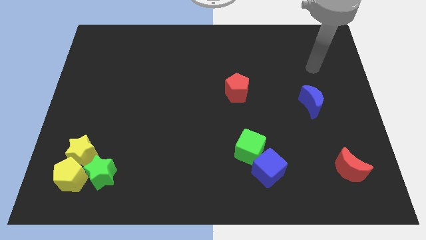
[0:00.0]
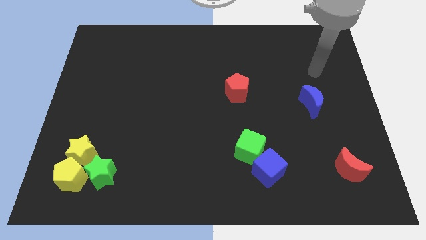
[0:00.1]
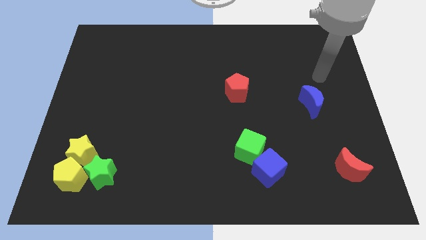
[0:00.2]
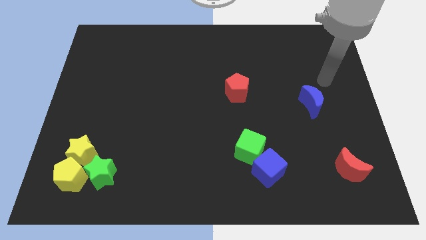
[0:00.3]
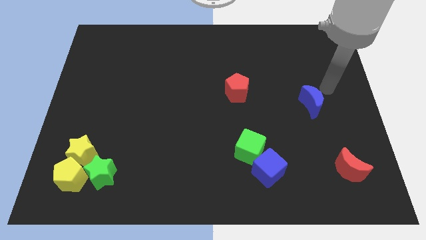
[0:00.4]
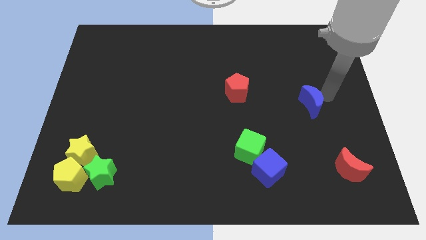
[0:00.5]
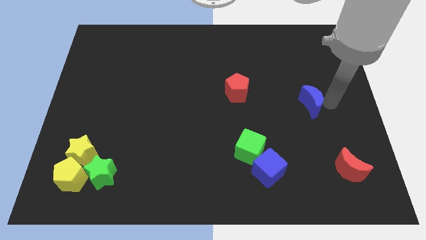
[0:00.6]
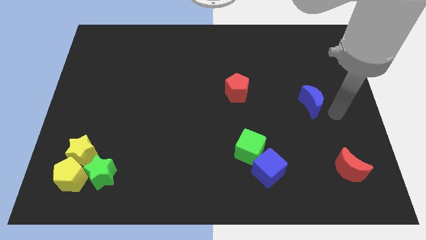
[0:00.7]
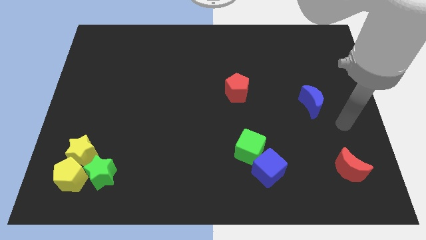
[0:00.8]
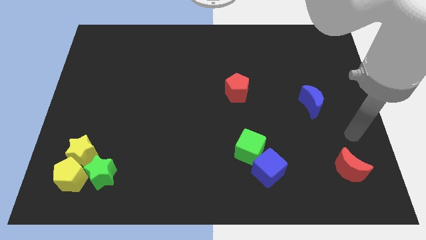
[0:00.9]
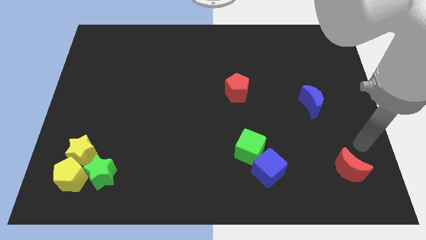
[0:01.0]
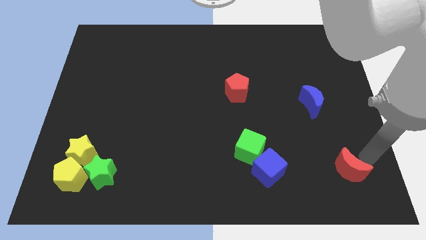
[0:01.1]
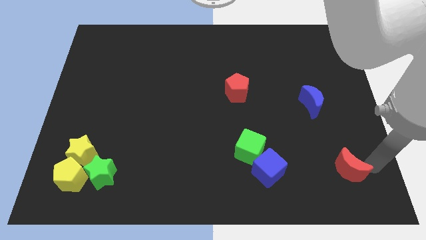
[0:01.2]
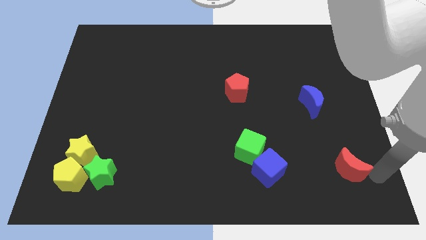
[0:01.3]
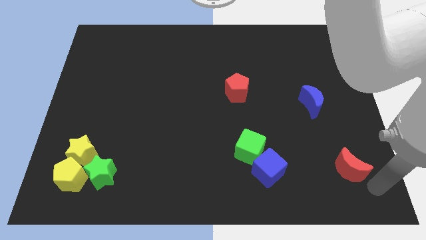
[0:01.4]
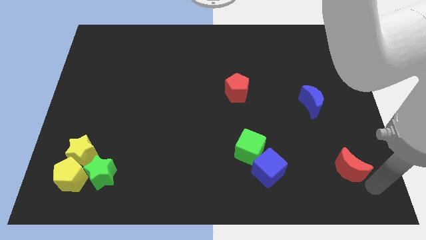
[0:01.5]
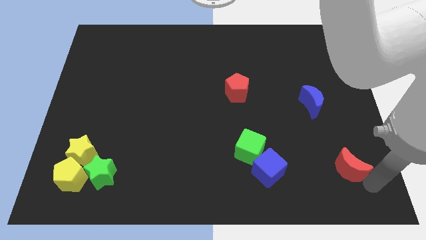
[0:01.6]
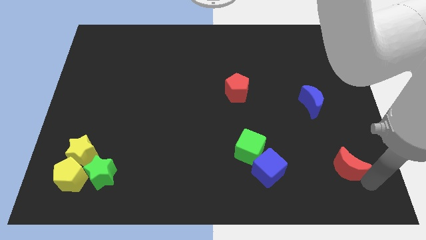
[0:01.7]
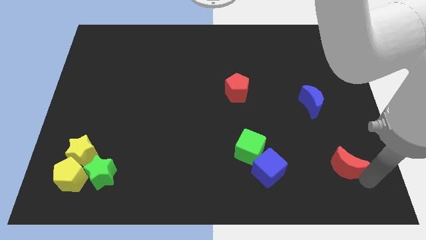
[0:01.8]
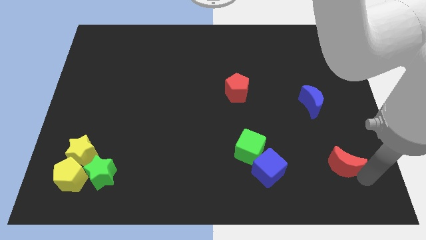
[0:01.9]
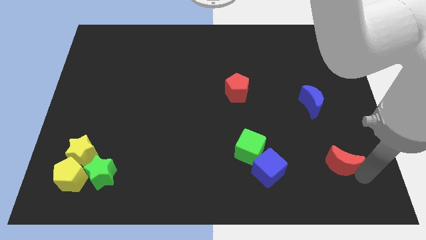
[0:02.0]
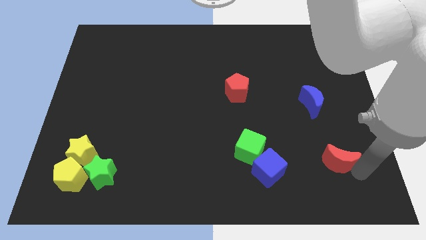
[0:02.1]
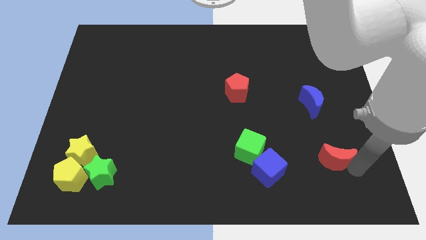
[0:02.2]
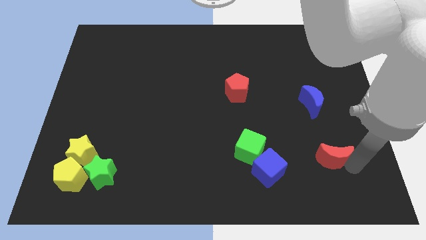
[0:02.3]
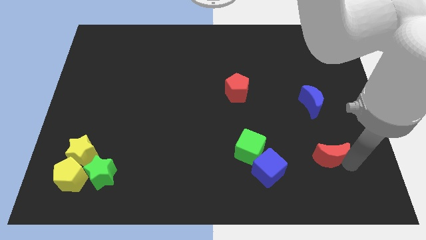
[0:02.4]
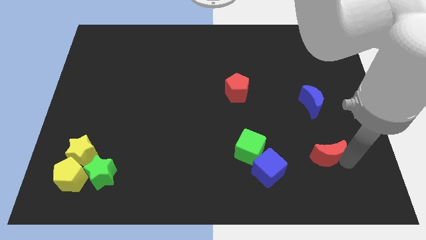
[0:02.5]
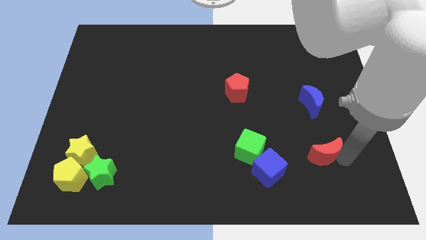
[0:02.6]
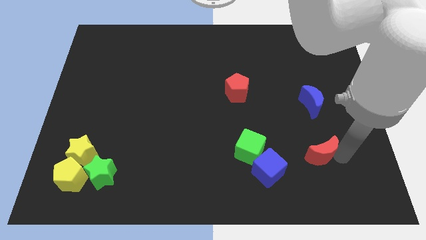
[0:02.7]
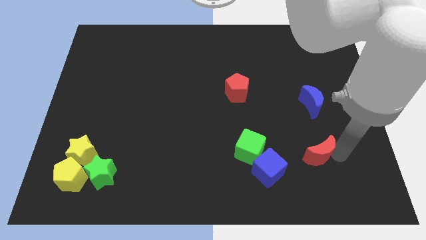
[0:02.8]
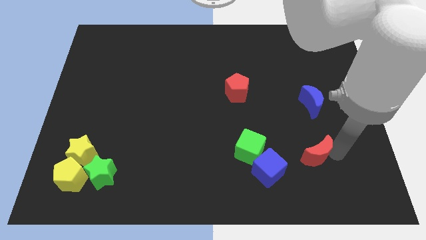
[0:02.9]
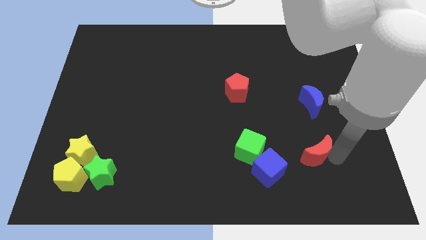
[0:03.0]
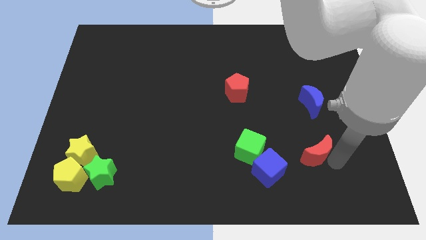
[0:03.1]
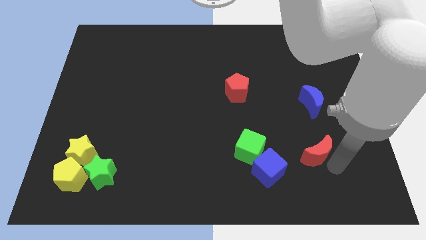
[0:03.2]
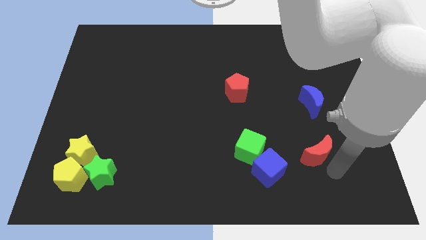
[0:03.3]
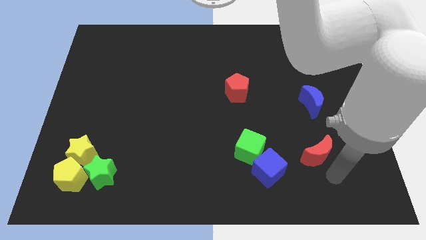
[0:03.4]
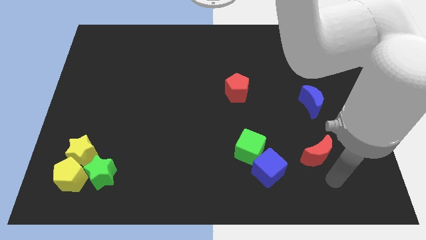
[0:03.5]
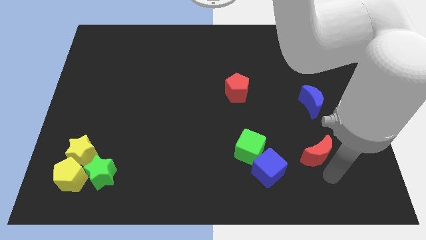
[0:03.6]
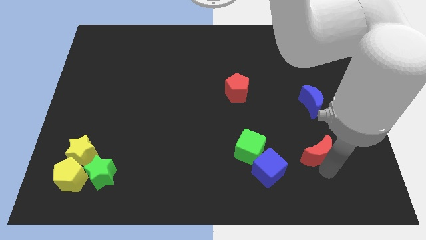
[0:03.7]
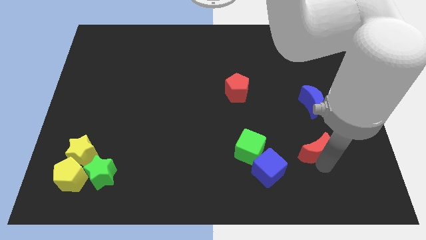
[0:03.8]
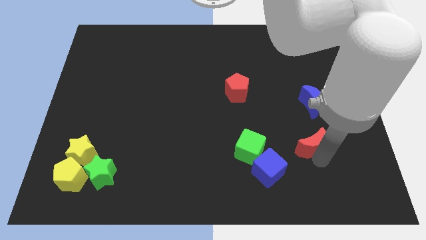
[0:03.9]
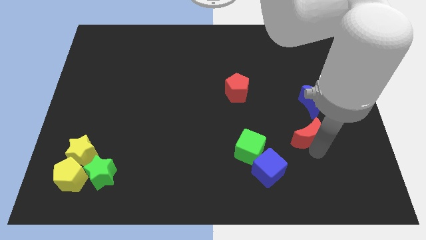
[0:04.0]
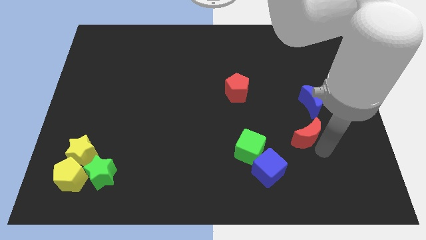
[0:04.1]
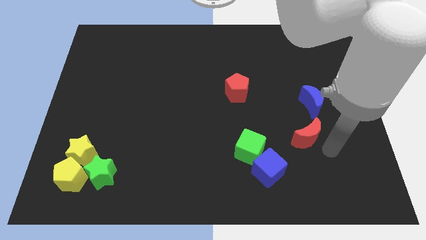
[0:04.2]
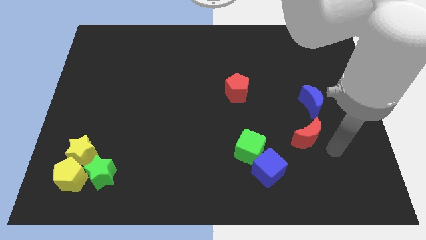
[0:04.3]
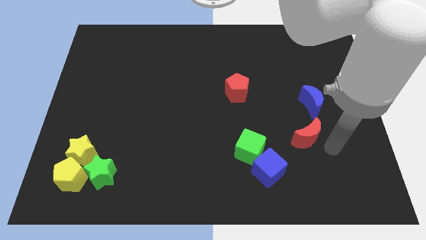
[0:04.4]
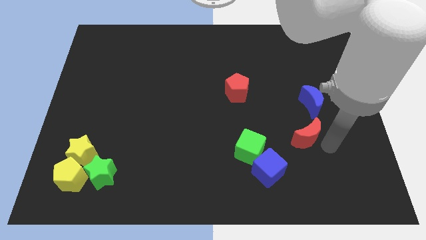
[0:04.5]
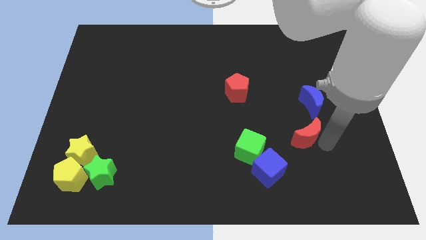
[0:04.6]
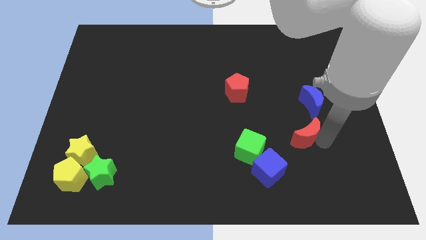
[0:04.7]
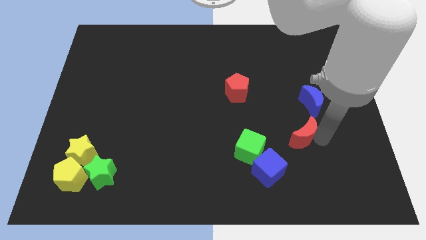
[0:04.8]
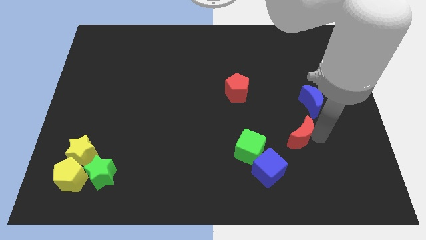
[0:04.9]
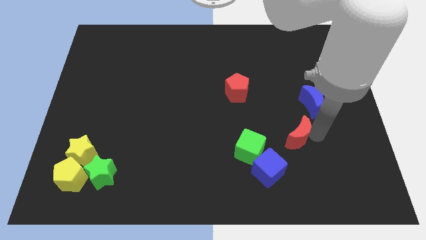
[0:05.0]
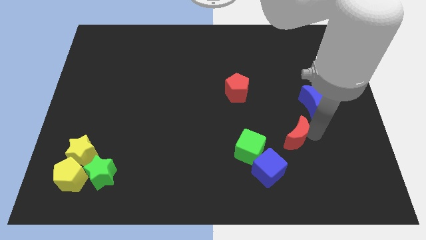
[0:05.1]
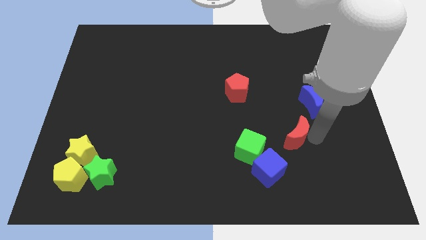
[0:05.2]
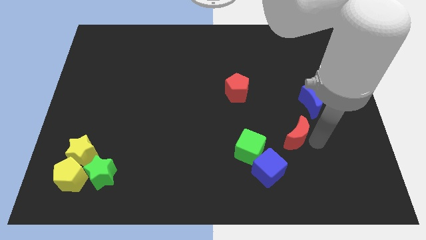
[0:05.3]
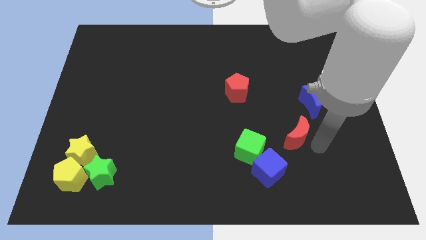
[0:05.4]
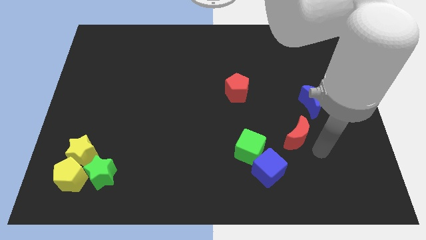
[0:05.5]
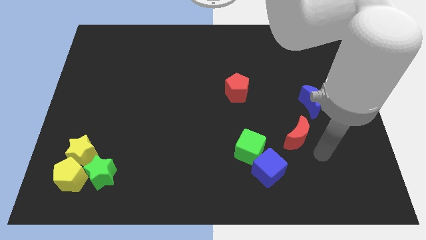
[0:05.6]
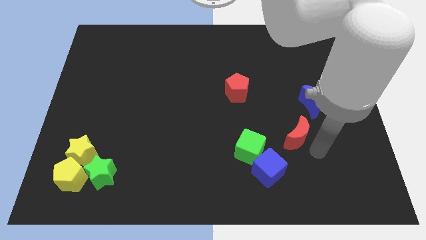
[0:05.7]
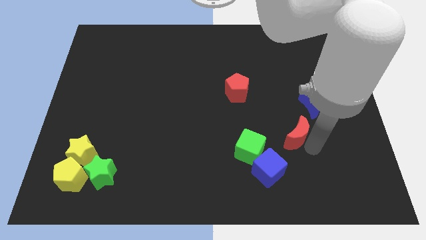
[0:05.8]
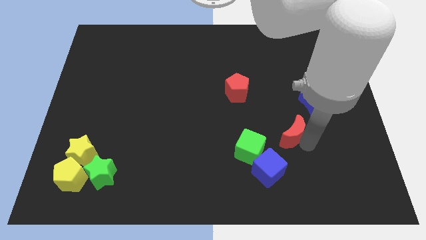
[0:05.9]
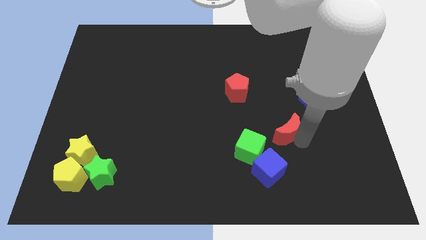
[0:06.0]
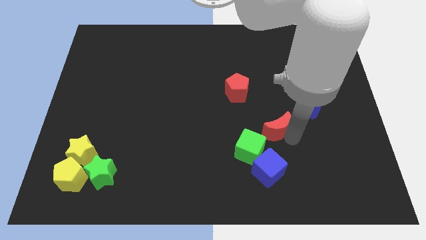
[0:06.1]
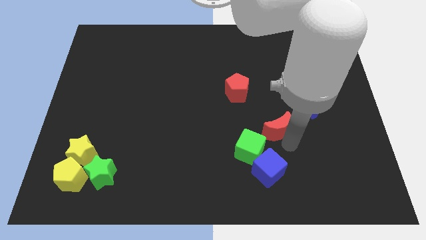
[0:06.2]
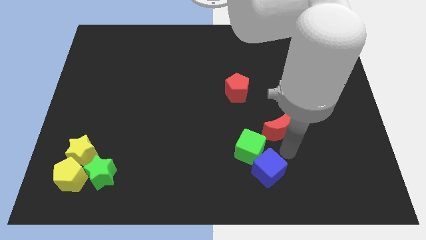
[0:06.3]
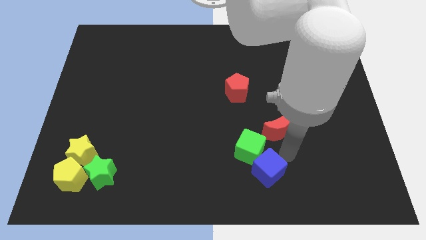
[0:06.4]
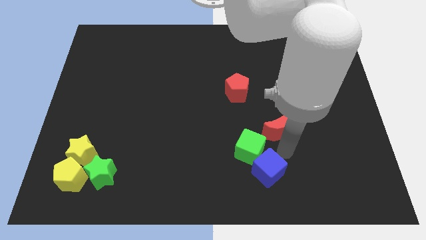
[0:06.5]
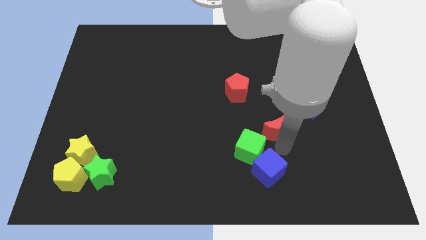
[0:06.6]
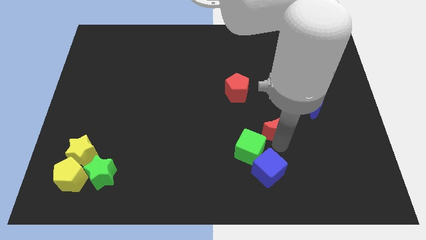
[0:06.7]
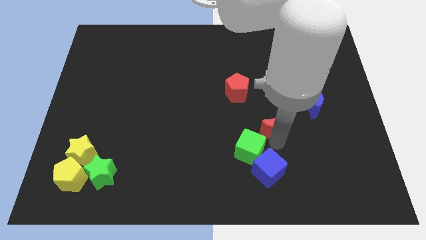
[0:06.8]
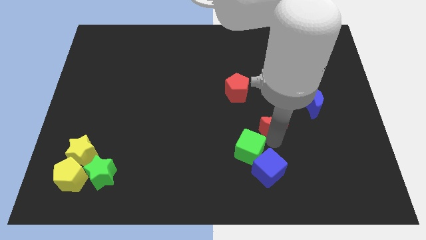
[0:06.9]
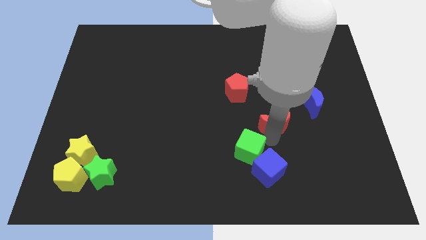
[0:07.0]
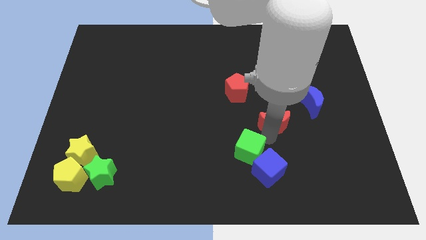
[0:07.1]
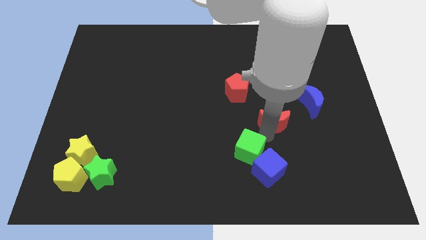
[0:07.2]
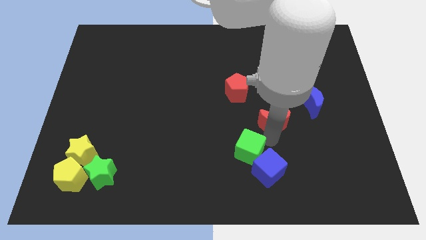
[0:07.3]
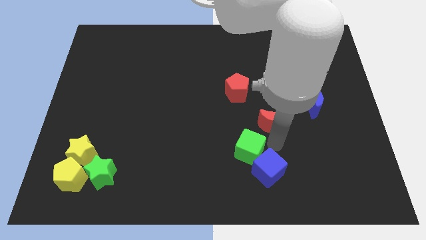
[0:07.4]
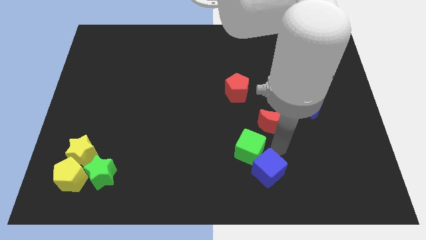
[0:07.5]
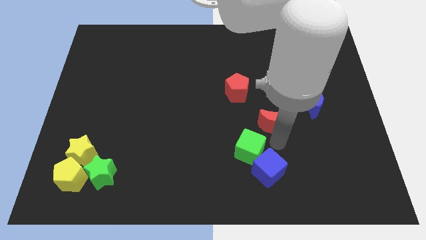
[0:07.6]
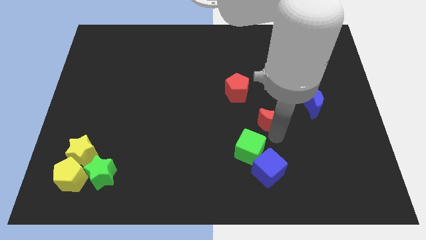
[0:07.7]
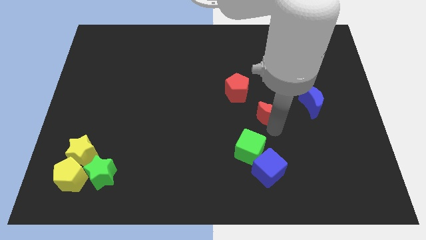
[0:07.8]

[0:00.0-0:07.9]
slide the red moon to the left of the blue moon
